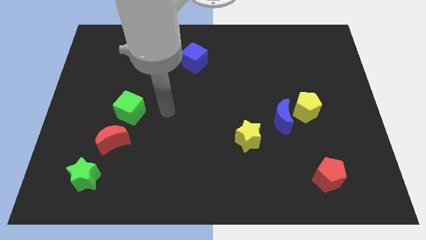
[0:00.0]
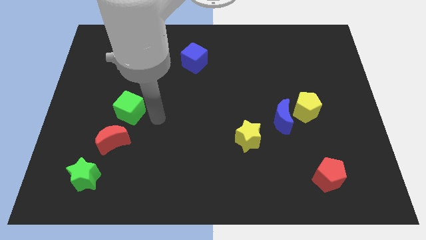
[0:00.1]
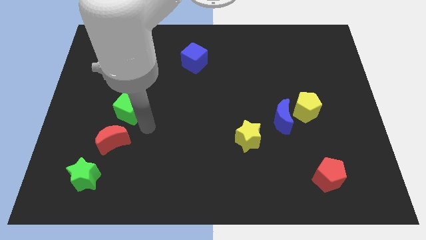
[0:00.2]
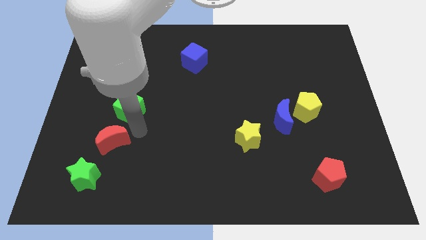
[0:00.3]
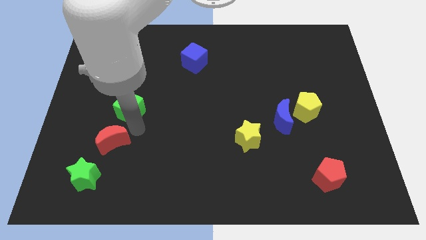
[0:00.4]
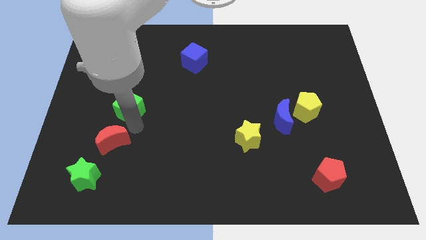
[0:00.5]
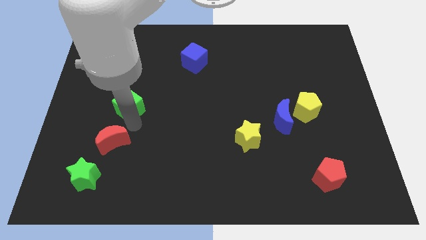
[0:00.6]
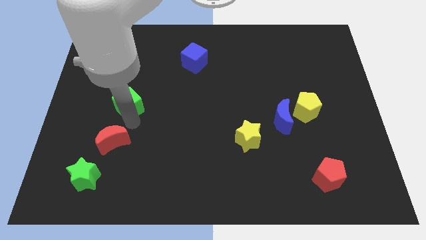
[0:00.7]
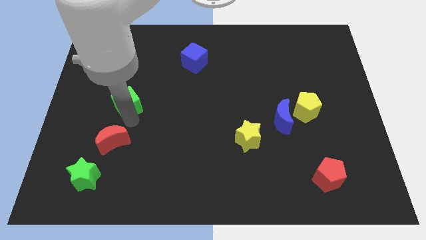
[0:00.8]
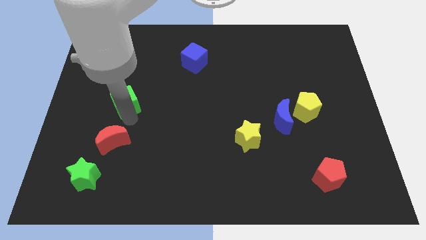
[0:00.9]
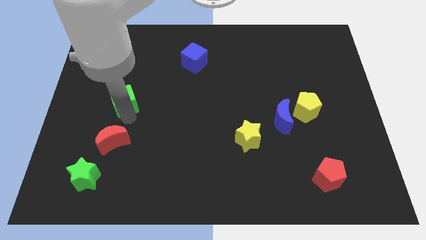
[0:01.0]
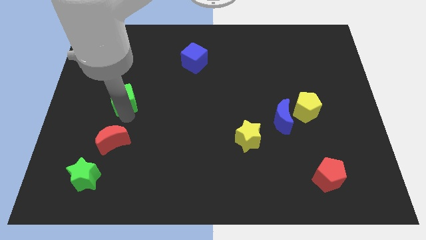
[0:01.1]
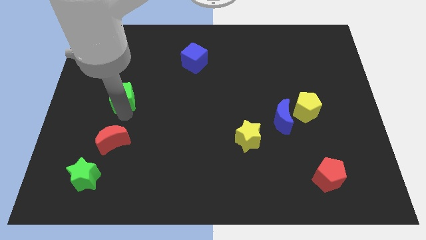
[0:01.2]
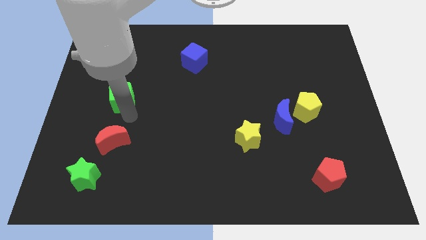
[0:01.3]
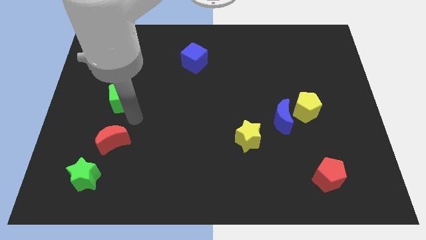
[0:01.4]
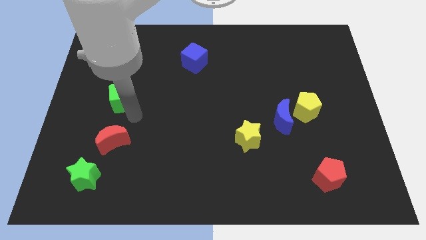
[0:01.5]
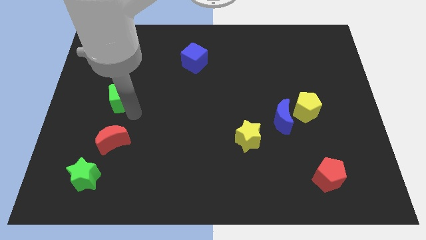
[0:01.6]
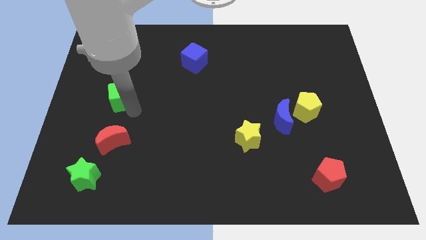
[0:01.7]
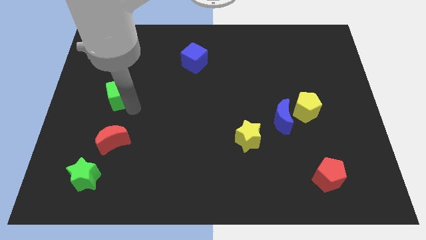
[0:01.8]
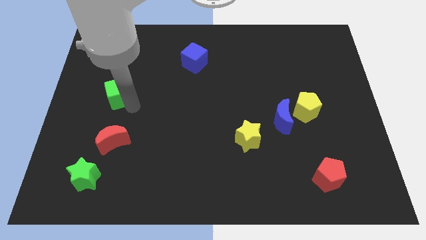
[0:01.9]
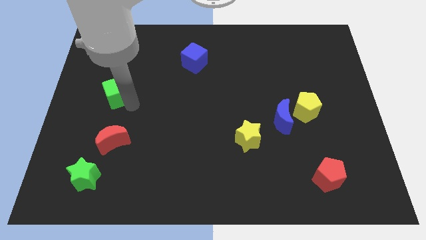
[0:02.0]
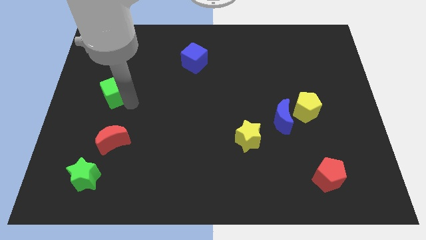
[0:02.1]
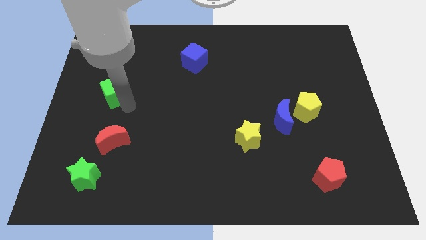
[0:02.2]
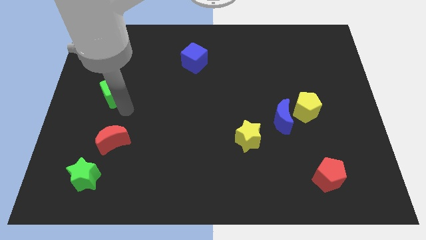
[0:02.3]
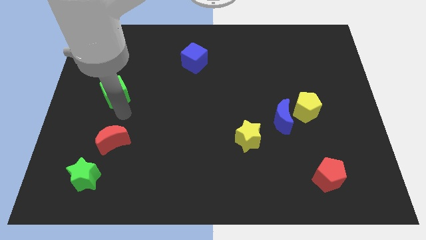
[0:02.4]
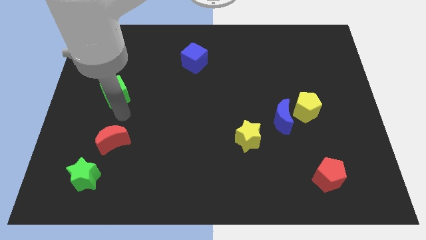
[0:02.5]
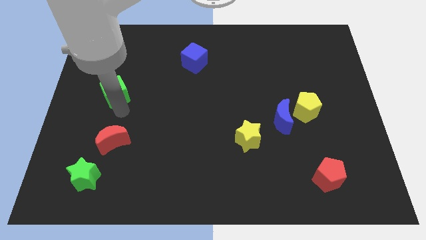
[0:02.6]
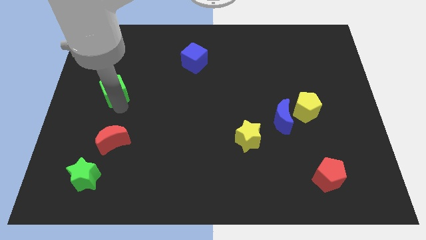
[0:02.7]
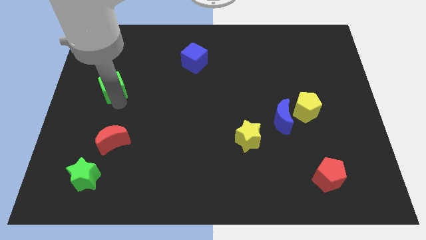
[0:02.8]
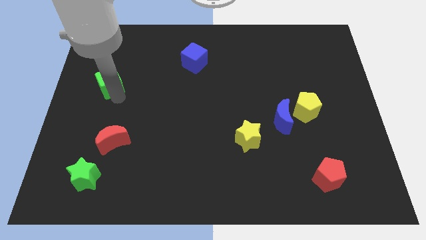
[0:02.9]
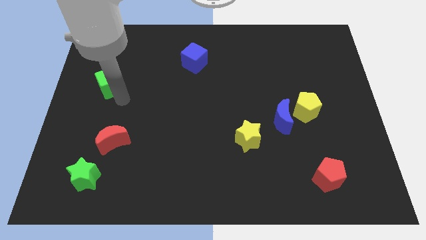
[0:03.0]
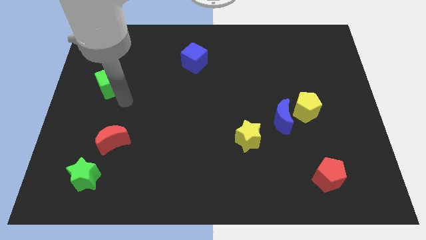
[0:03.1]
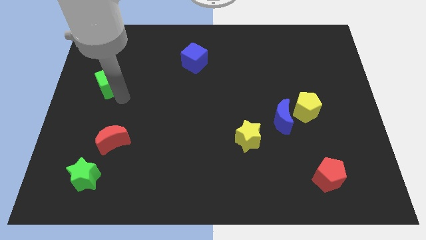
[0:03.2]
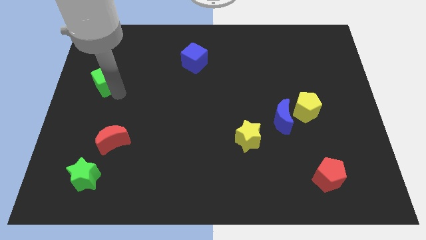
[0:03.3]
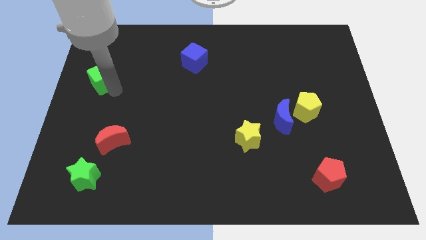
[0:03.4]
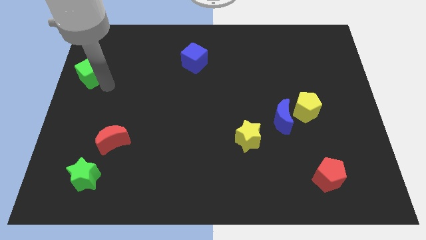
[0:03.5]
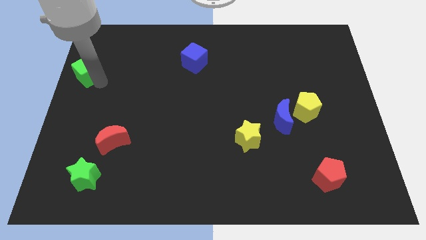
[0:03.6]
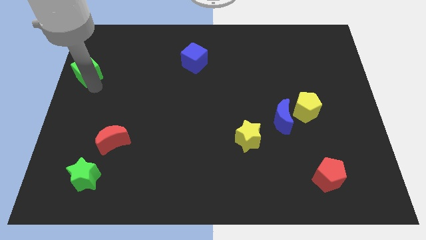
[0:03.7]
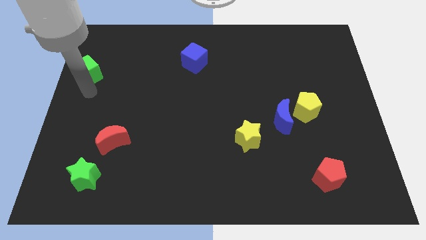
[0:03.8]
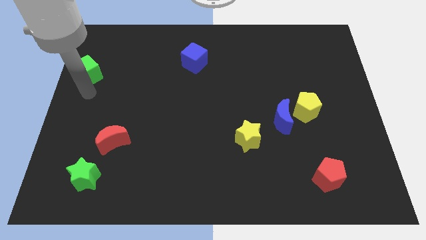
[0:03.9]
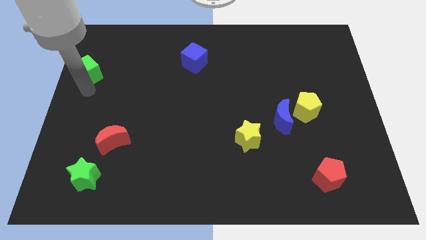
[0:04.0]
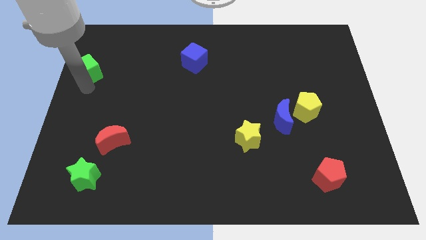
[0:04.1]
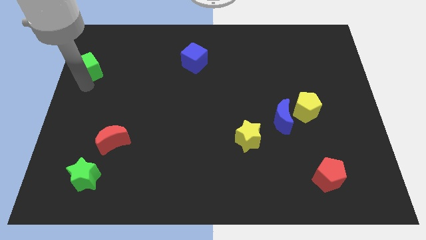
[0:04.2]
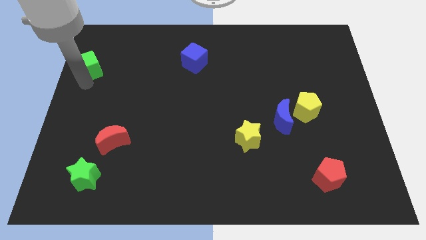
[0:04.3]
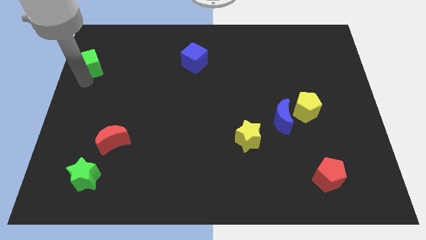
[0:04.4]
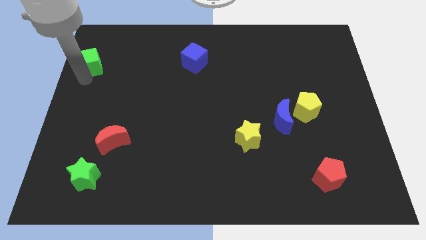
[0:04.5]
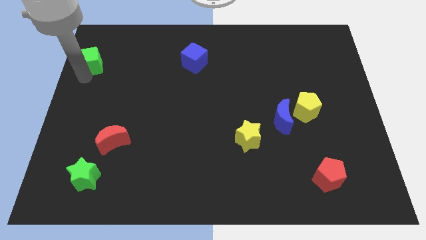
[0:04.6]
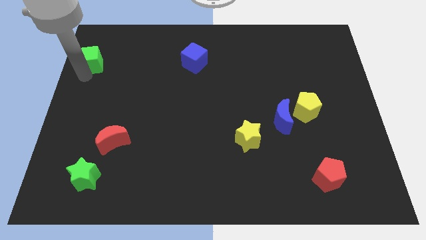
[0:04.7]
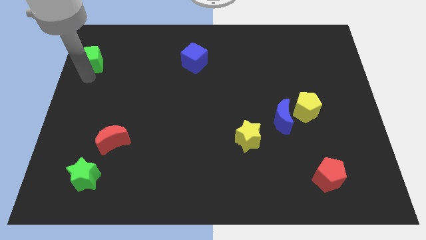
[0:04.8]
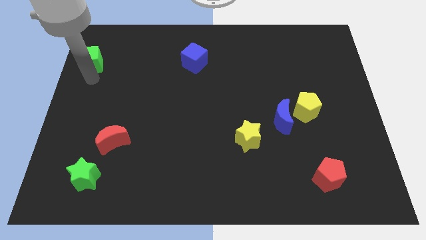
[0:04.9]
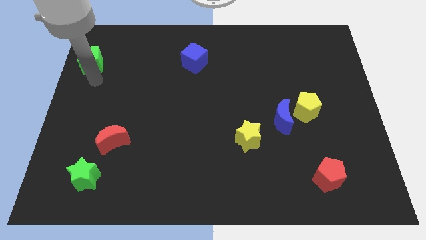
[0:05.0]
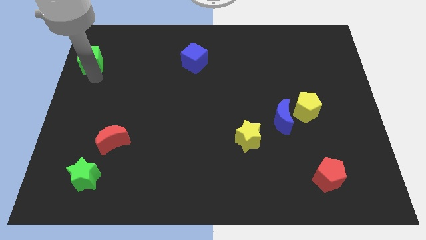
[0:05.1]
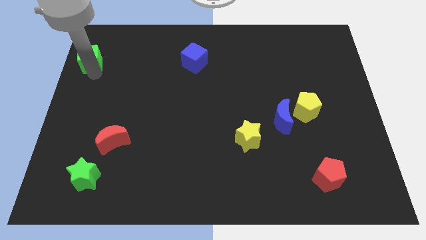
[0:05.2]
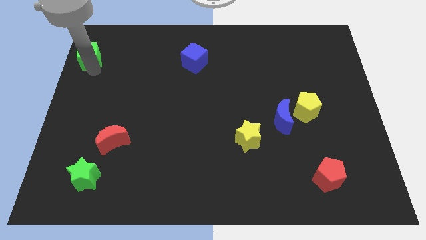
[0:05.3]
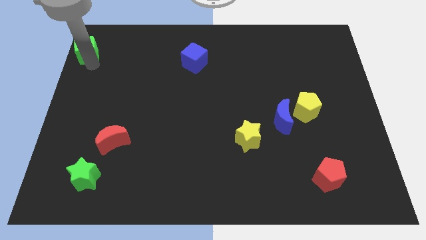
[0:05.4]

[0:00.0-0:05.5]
push the green cube to the top left

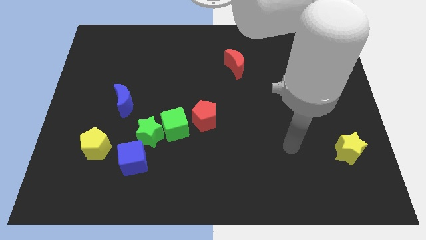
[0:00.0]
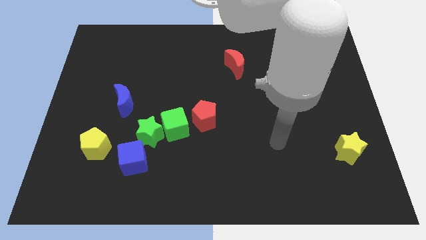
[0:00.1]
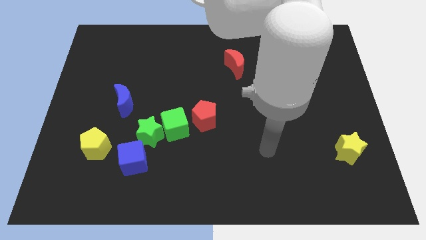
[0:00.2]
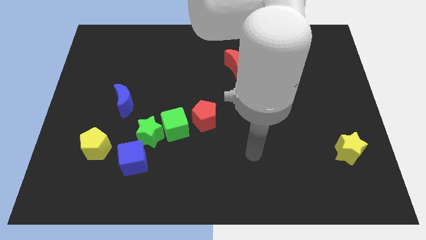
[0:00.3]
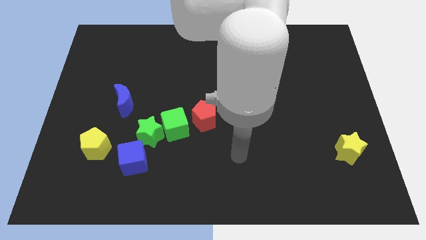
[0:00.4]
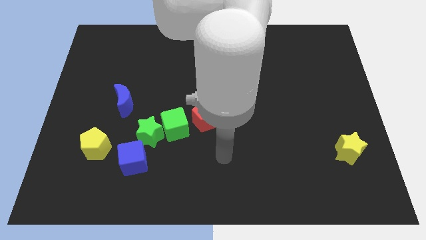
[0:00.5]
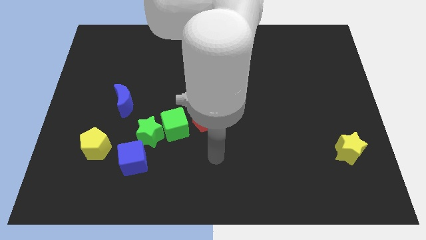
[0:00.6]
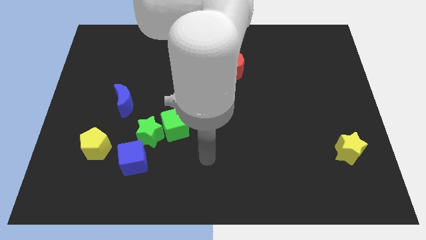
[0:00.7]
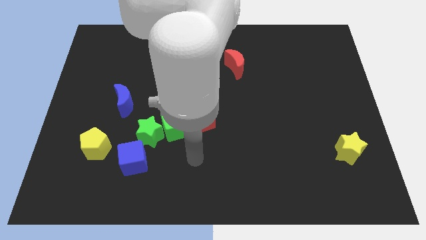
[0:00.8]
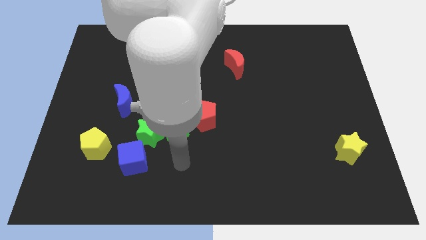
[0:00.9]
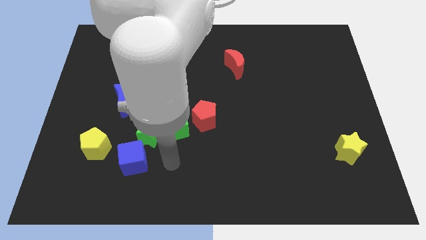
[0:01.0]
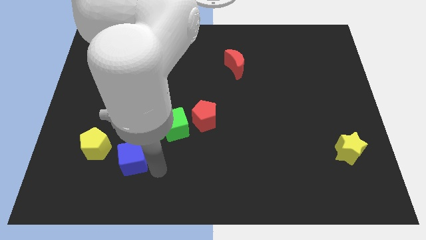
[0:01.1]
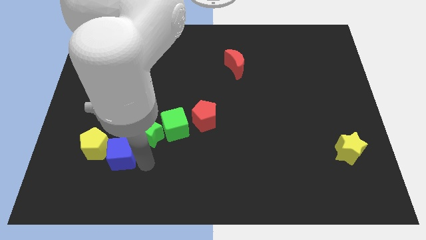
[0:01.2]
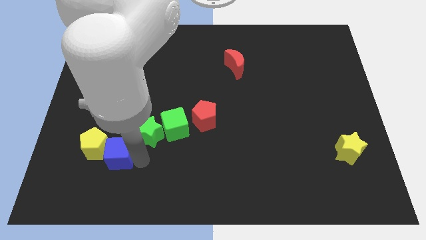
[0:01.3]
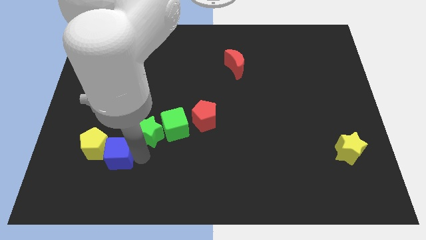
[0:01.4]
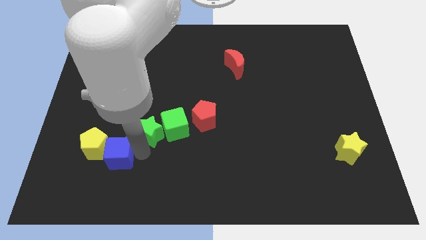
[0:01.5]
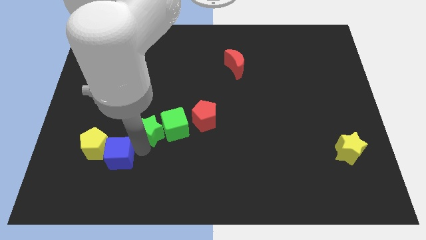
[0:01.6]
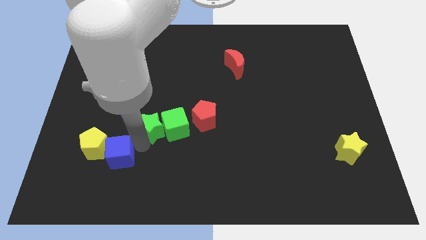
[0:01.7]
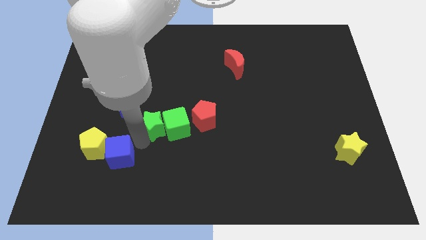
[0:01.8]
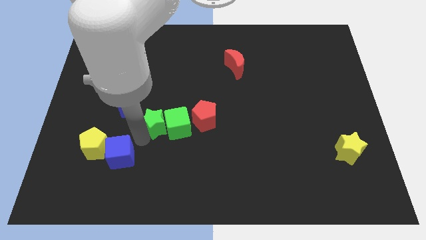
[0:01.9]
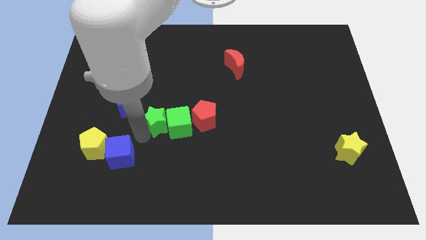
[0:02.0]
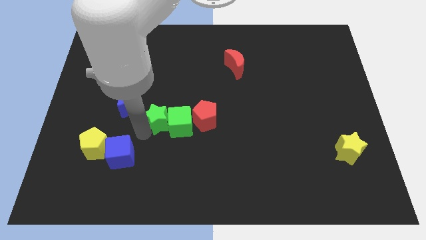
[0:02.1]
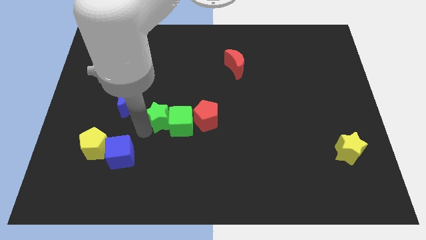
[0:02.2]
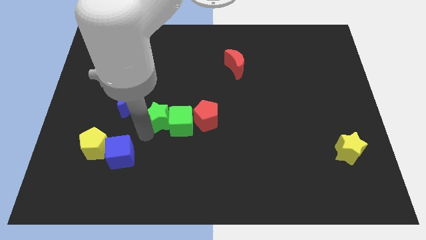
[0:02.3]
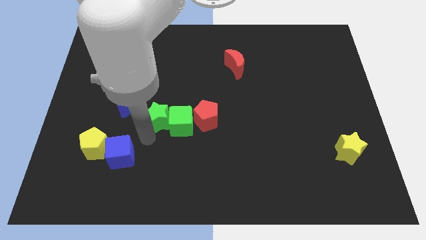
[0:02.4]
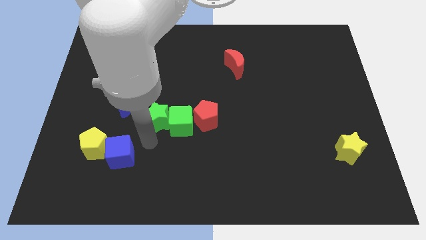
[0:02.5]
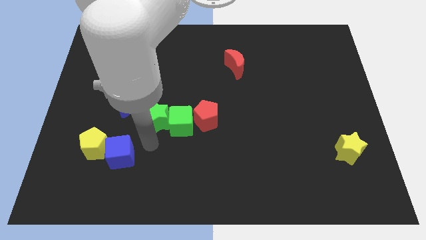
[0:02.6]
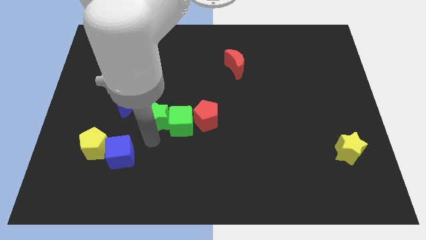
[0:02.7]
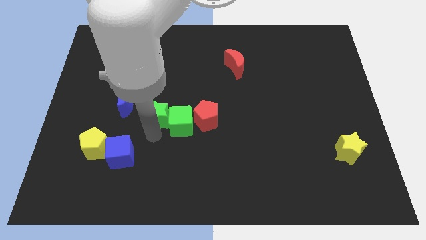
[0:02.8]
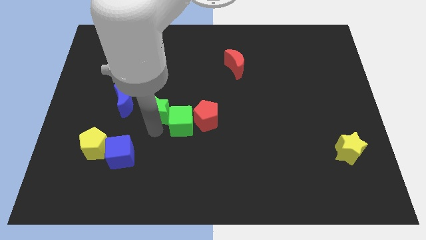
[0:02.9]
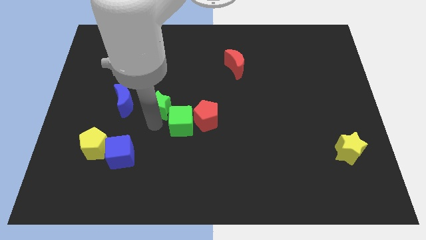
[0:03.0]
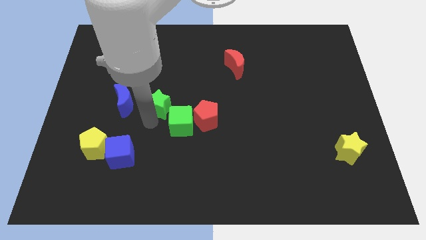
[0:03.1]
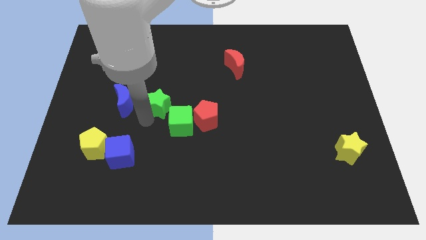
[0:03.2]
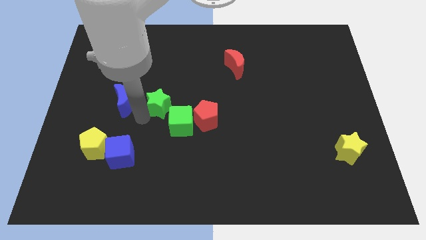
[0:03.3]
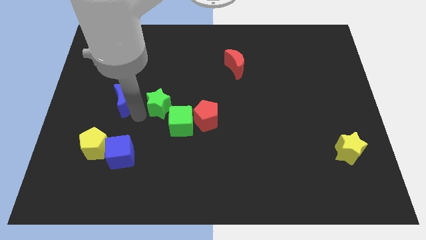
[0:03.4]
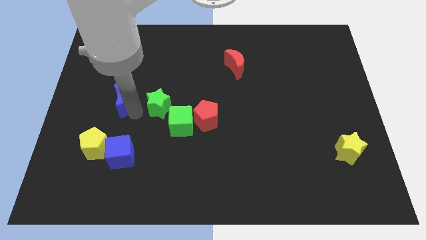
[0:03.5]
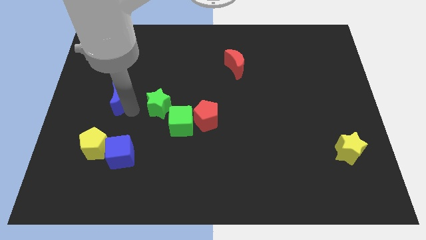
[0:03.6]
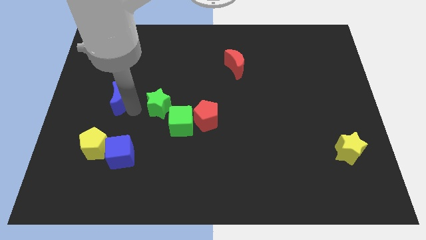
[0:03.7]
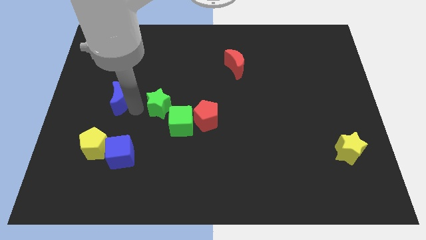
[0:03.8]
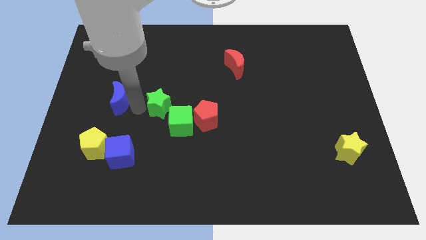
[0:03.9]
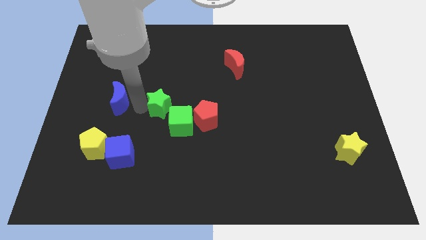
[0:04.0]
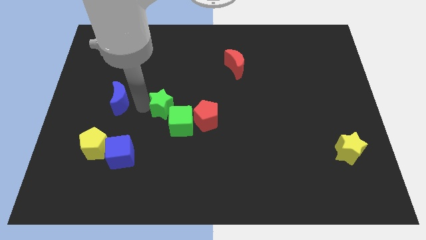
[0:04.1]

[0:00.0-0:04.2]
slide the green star to the middle of the board
